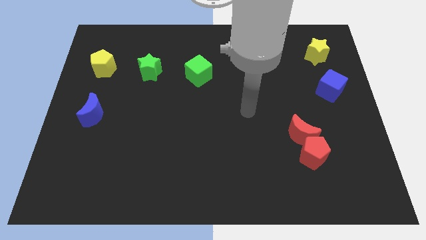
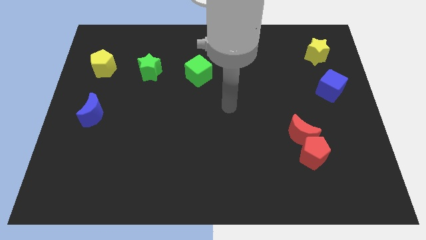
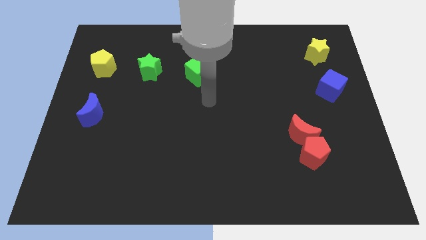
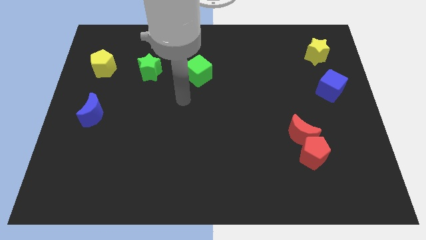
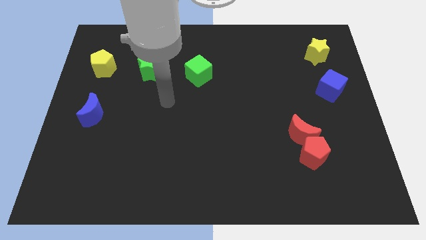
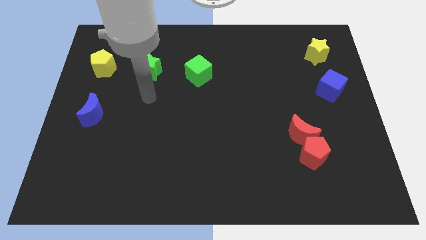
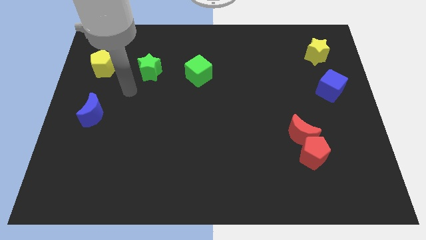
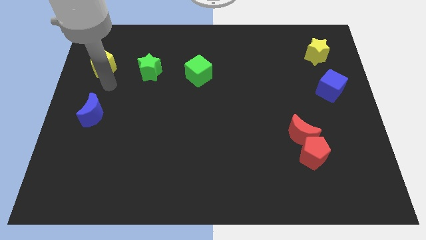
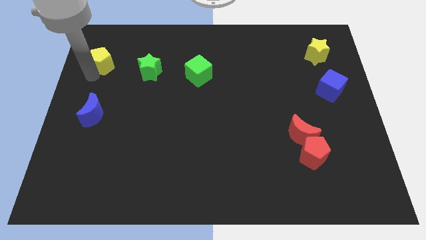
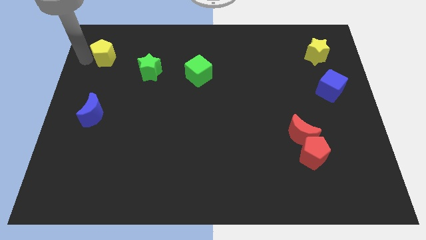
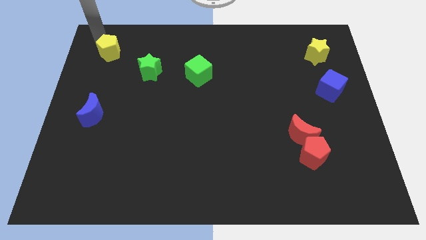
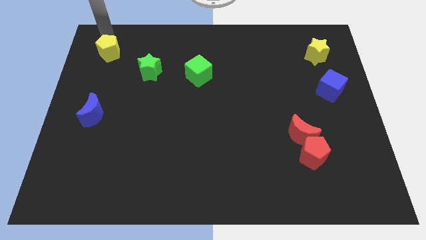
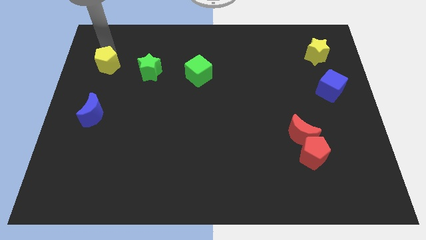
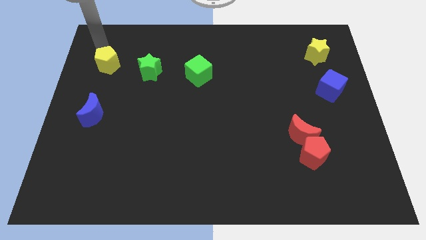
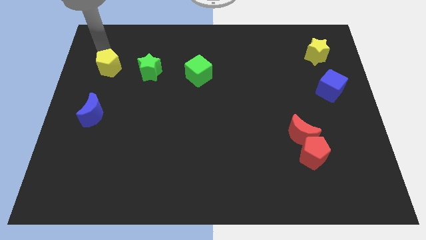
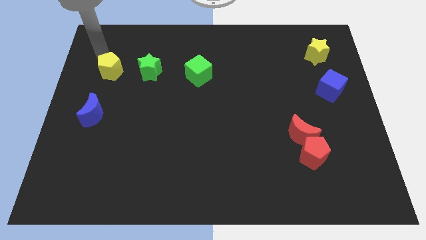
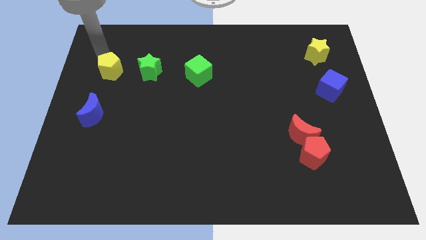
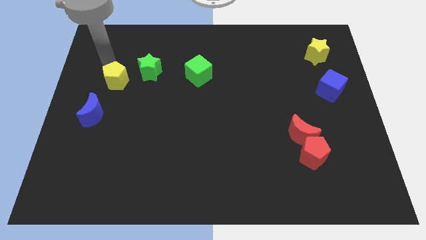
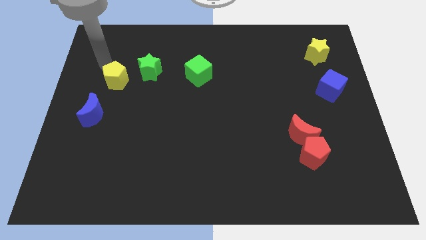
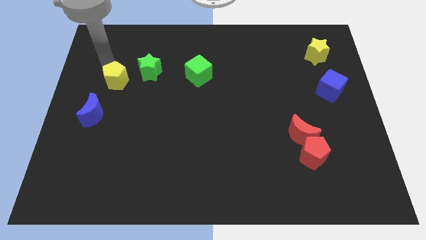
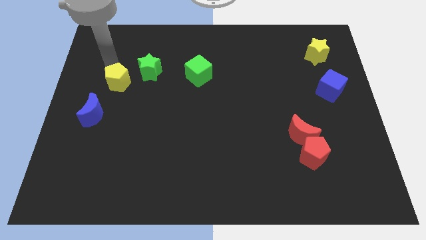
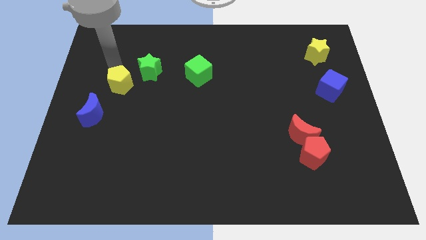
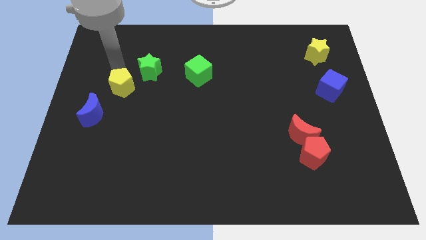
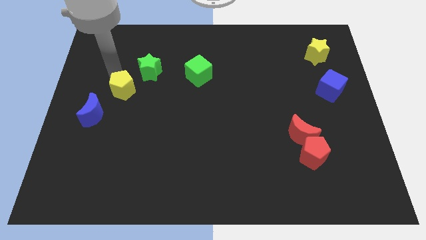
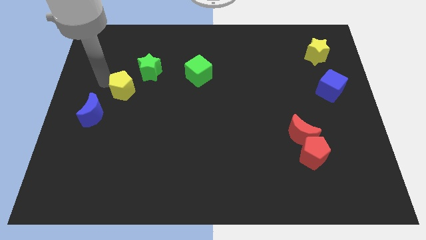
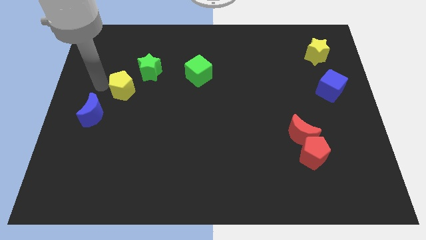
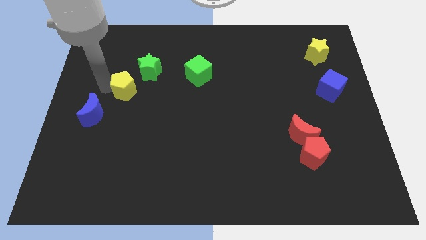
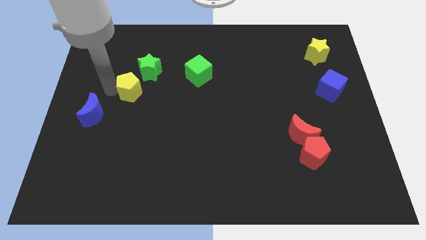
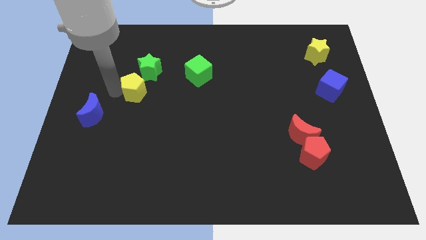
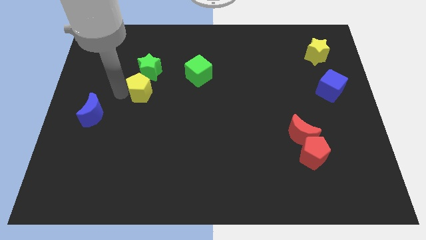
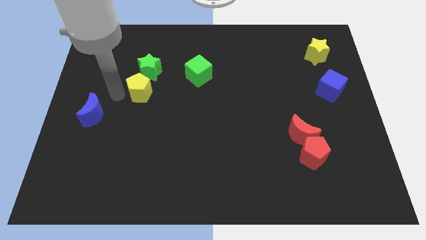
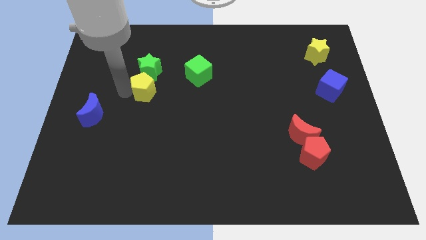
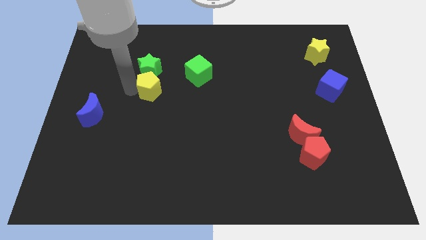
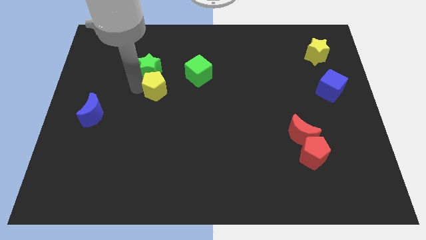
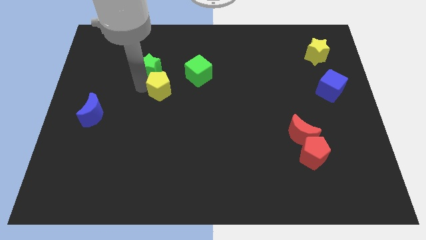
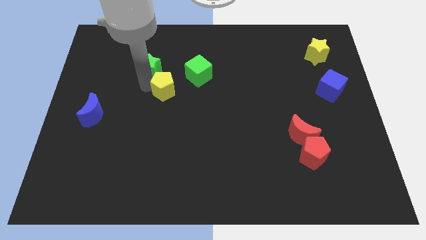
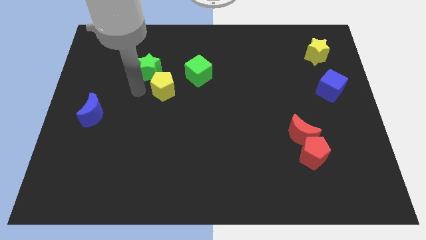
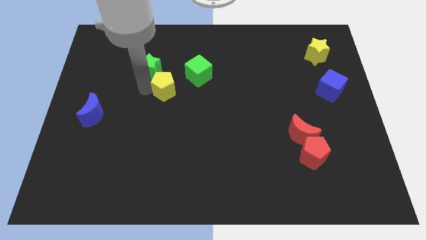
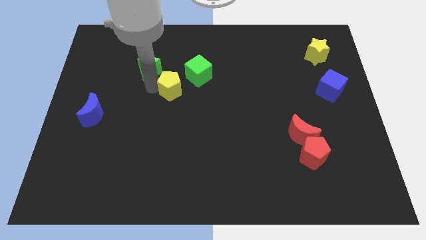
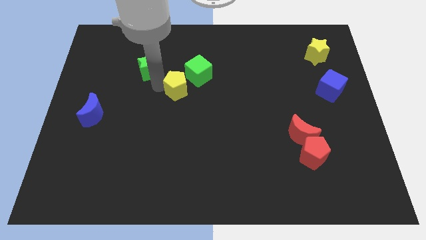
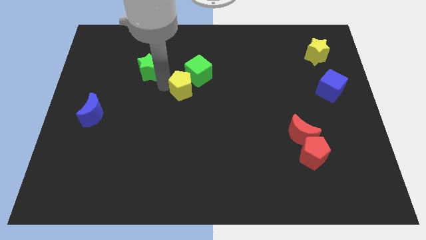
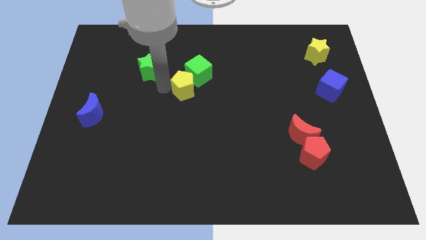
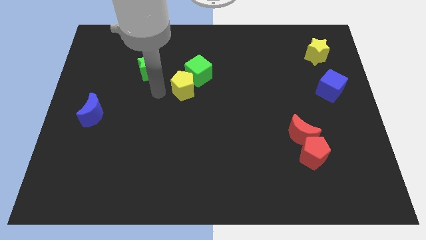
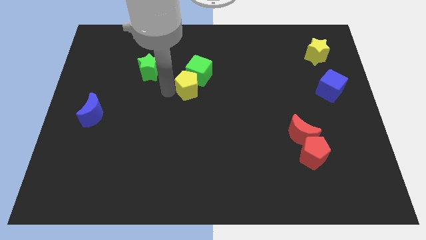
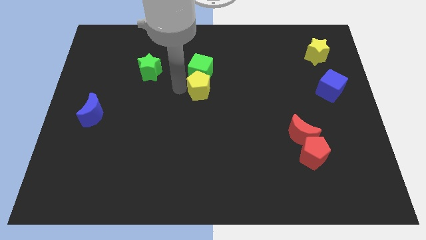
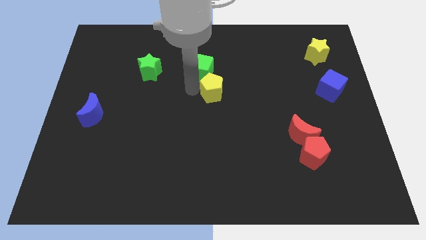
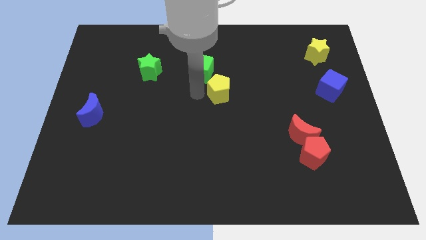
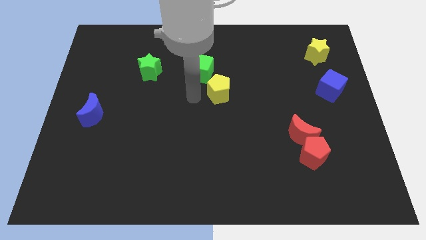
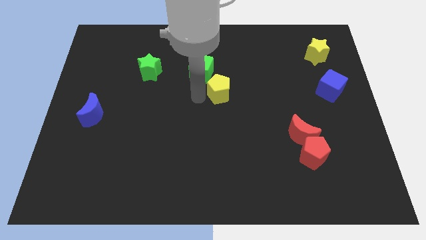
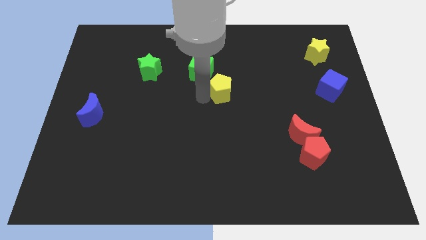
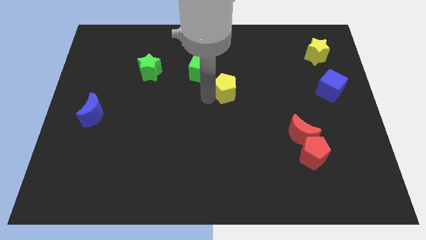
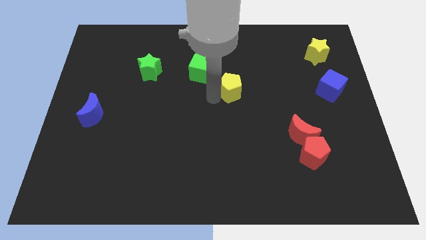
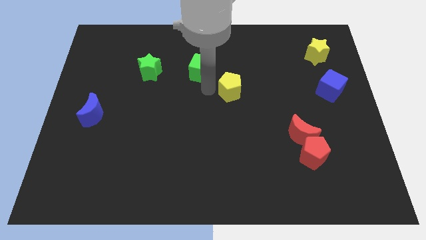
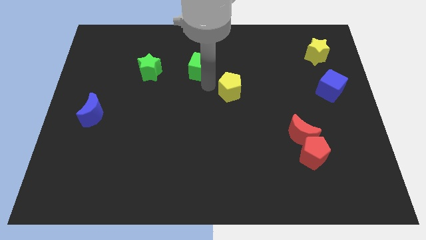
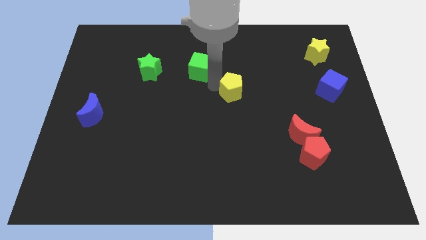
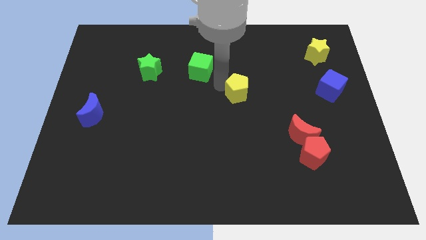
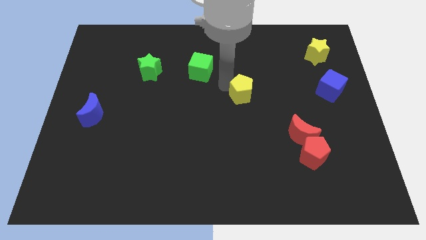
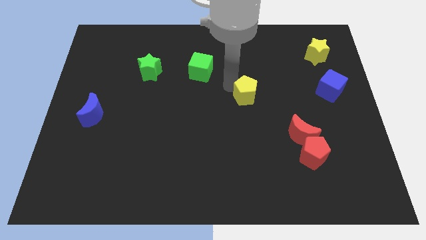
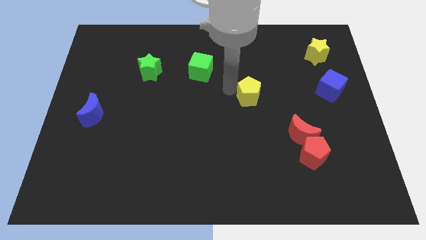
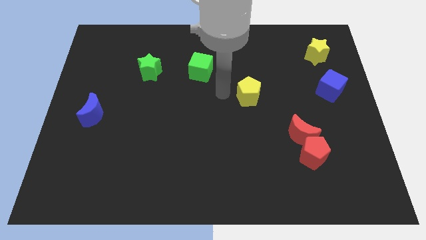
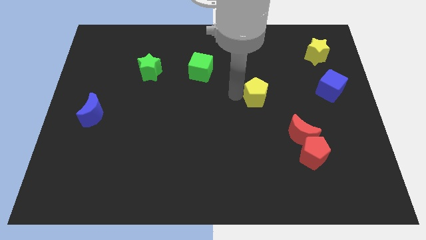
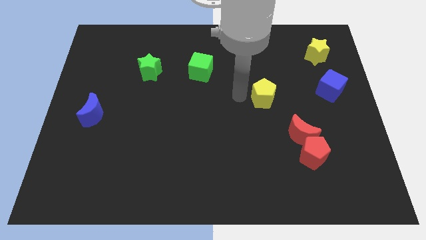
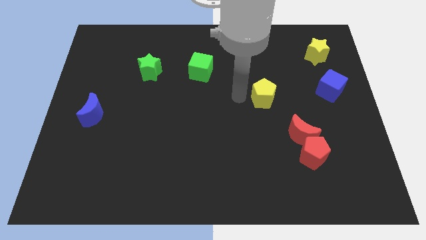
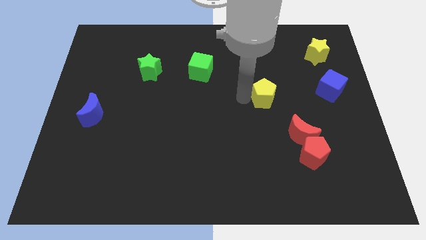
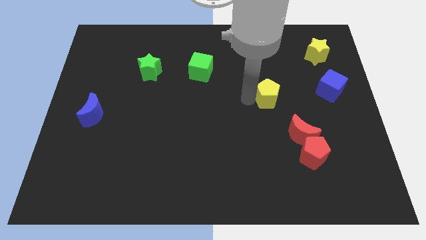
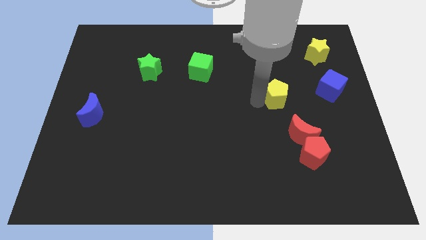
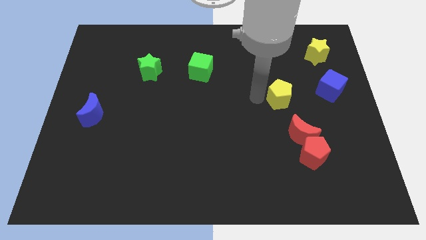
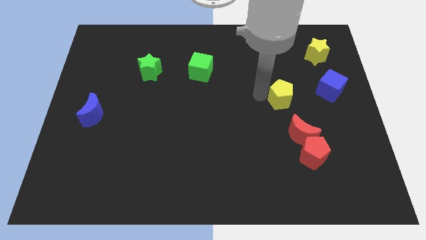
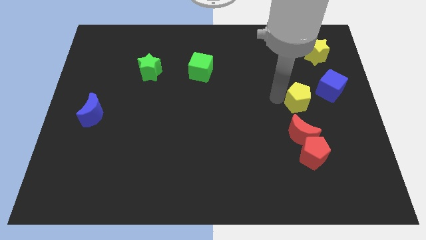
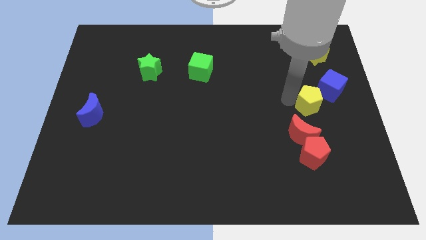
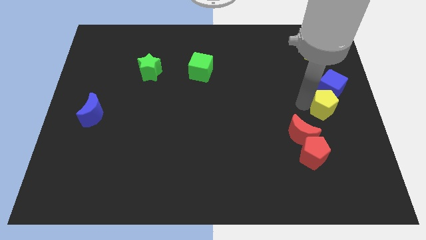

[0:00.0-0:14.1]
put the yellow pentagon to the right side
